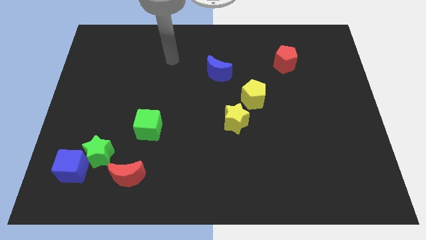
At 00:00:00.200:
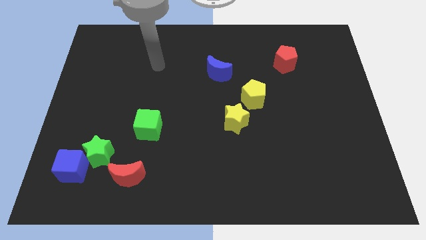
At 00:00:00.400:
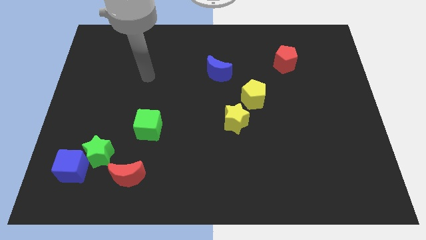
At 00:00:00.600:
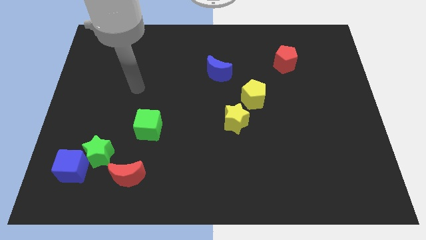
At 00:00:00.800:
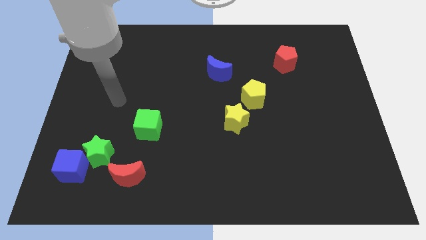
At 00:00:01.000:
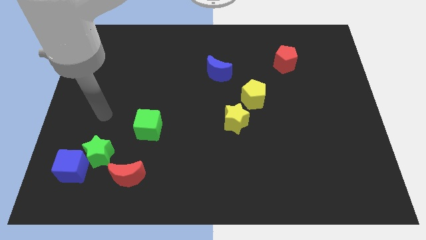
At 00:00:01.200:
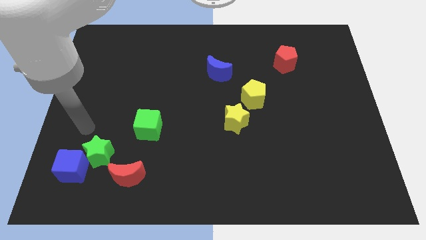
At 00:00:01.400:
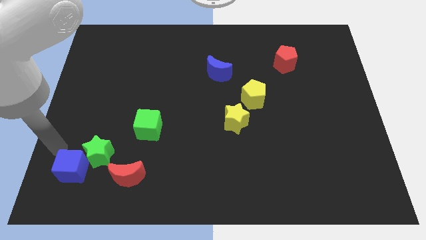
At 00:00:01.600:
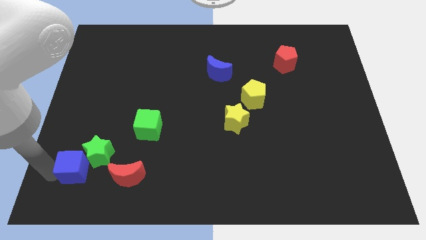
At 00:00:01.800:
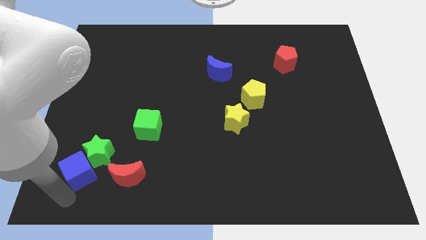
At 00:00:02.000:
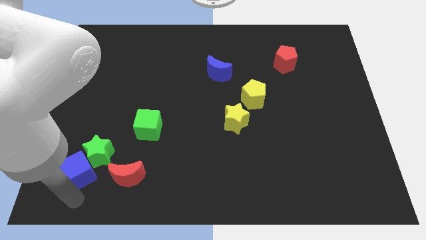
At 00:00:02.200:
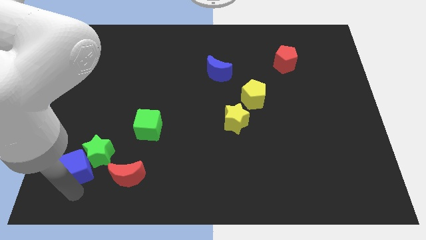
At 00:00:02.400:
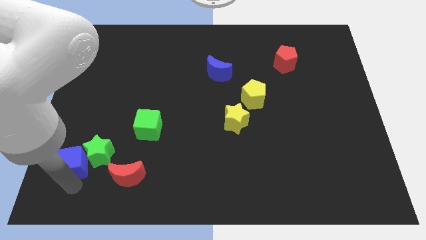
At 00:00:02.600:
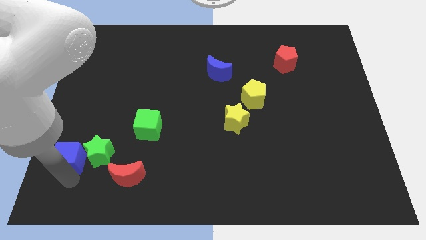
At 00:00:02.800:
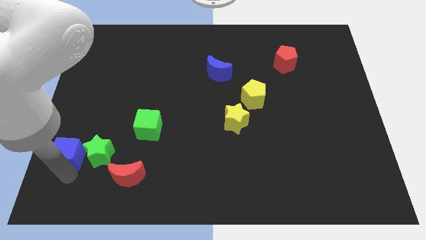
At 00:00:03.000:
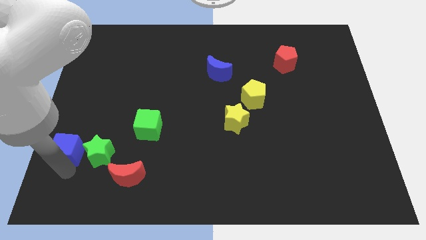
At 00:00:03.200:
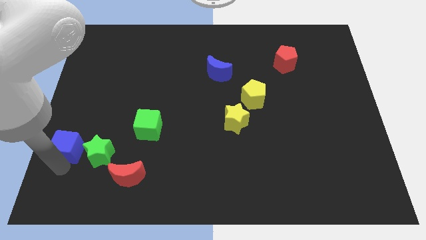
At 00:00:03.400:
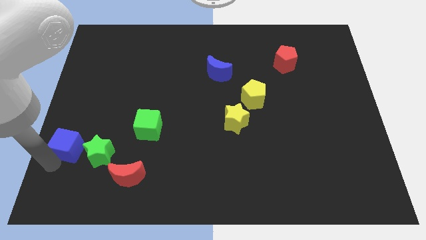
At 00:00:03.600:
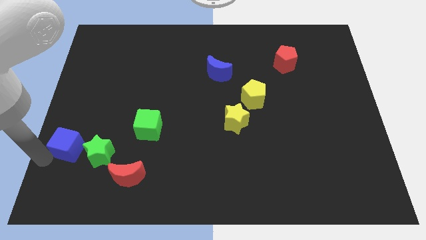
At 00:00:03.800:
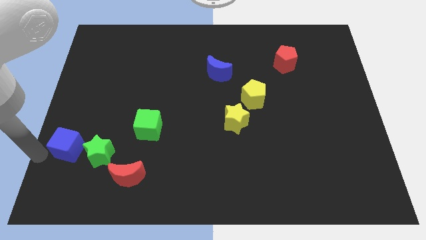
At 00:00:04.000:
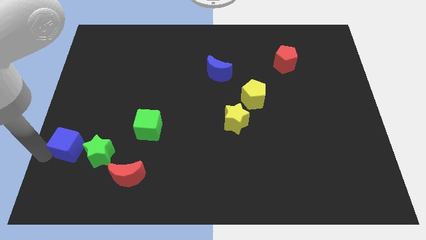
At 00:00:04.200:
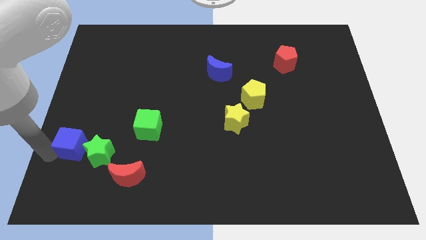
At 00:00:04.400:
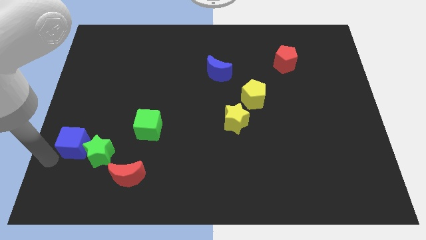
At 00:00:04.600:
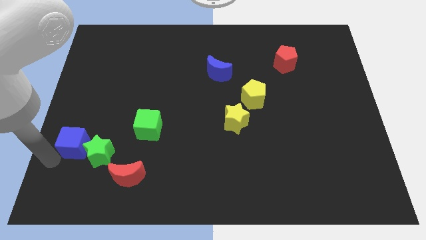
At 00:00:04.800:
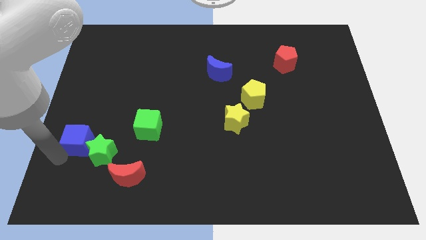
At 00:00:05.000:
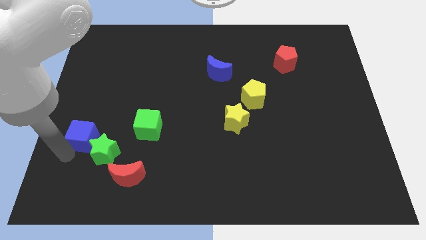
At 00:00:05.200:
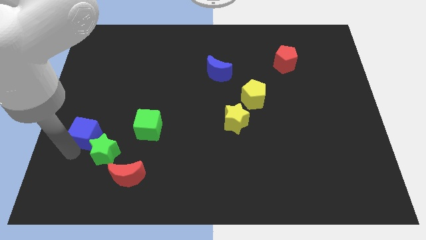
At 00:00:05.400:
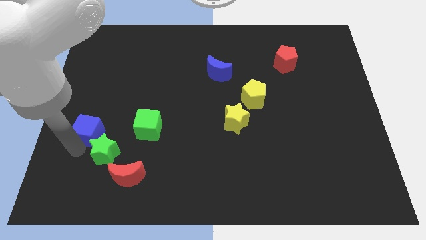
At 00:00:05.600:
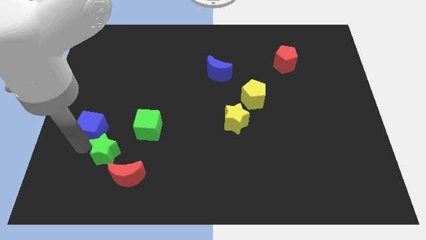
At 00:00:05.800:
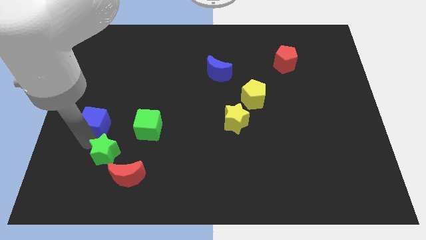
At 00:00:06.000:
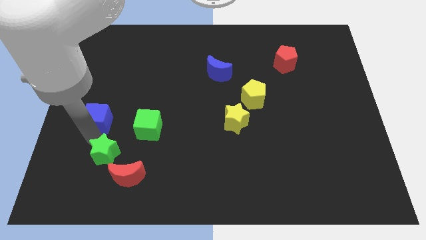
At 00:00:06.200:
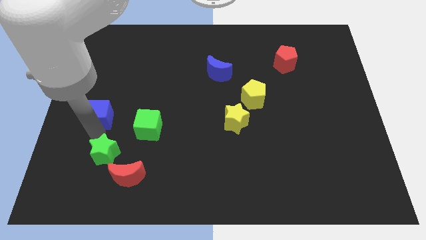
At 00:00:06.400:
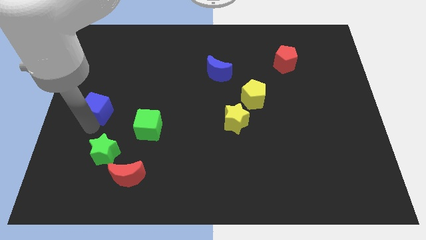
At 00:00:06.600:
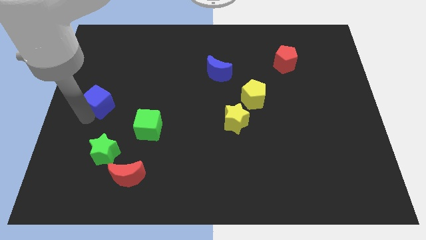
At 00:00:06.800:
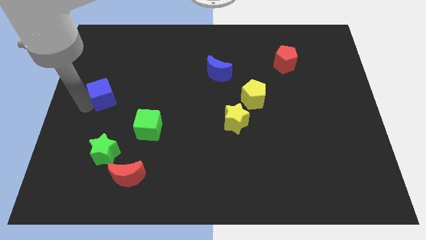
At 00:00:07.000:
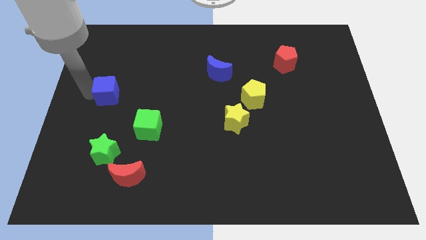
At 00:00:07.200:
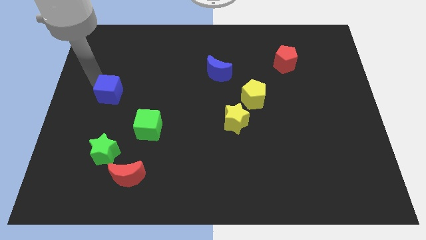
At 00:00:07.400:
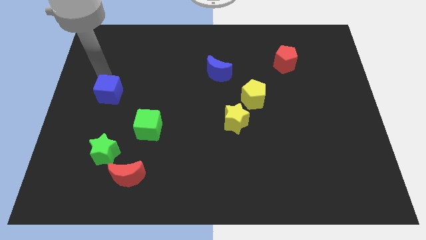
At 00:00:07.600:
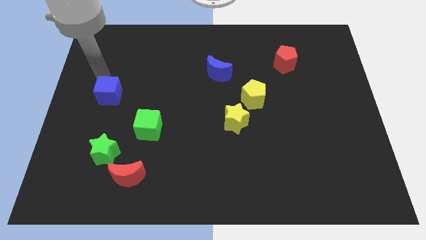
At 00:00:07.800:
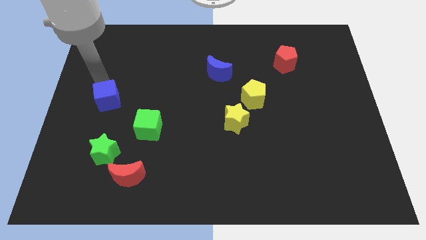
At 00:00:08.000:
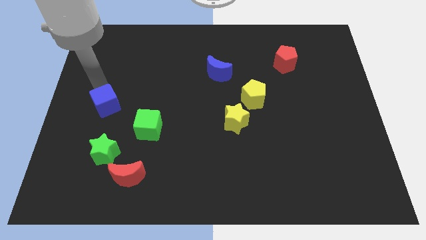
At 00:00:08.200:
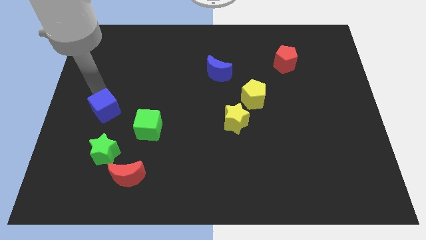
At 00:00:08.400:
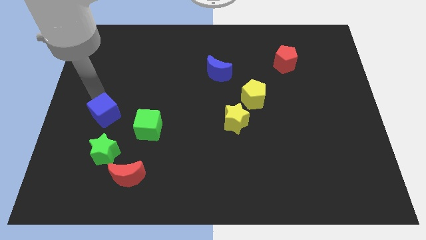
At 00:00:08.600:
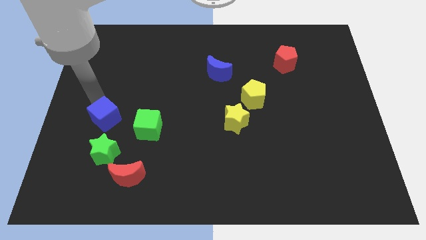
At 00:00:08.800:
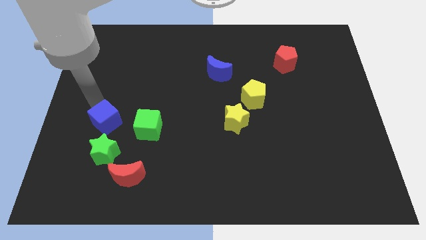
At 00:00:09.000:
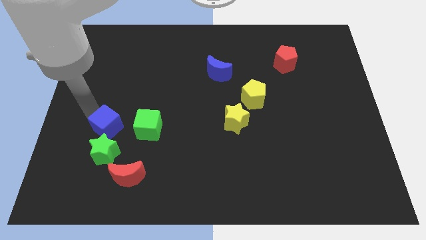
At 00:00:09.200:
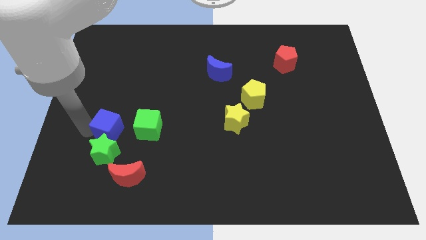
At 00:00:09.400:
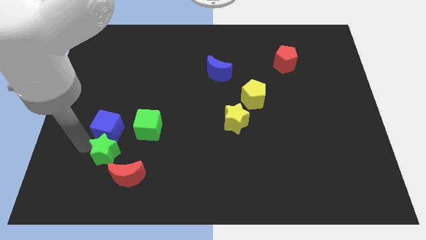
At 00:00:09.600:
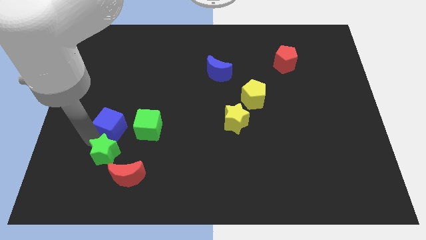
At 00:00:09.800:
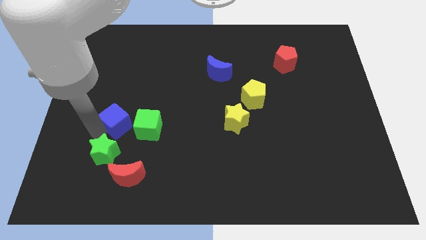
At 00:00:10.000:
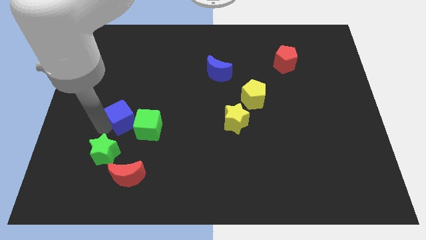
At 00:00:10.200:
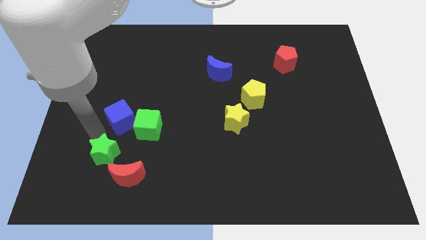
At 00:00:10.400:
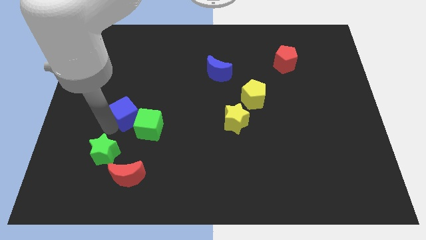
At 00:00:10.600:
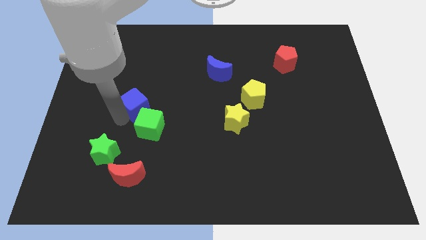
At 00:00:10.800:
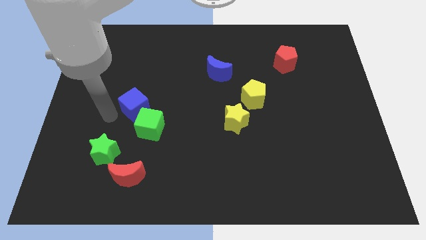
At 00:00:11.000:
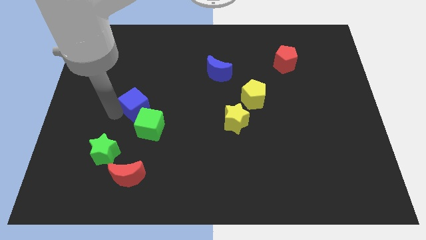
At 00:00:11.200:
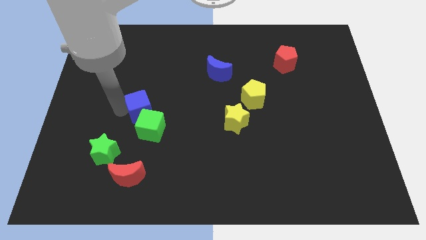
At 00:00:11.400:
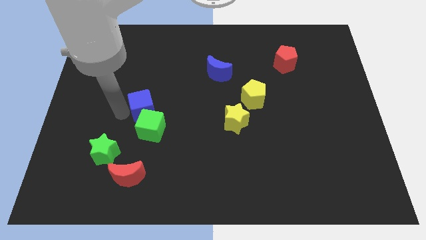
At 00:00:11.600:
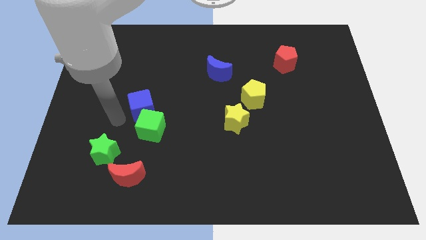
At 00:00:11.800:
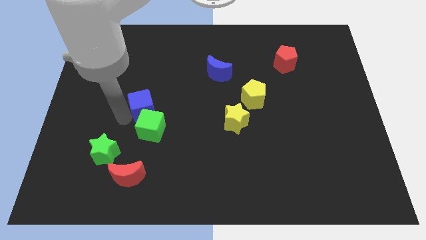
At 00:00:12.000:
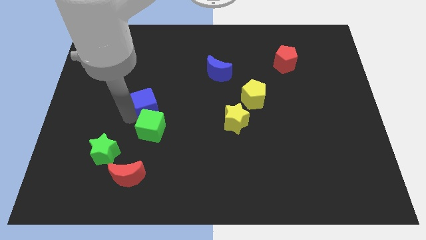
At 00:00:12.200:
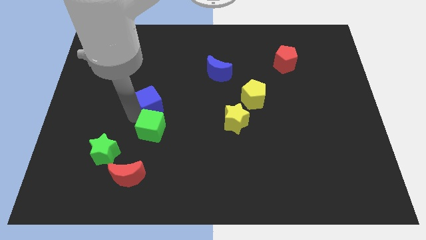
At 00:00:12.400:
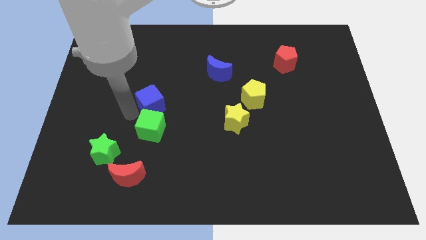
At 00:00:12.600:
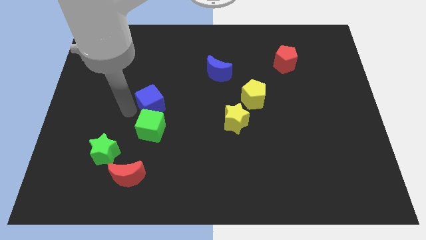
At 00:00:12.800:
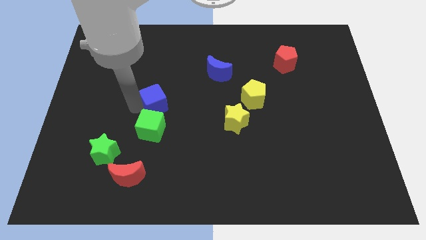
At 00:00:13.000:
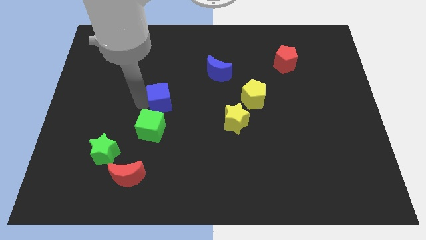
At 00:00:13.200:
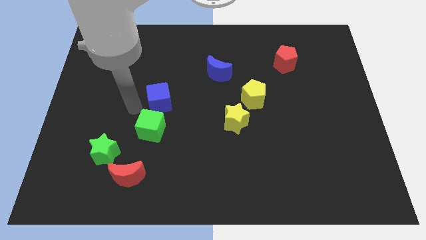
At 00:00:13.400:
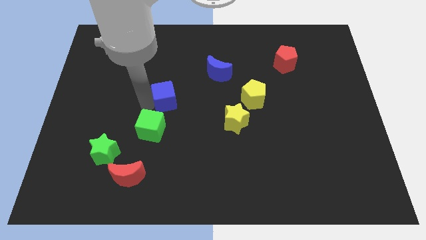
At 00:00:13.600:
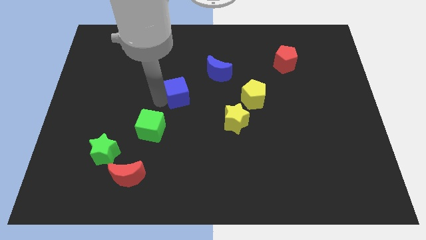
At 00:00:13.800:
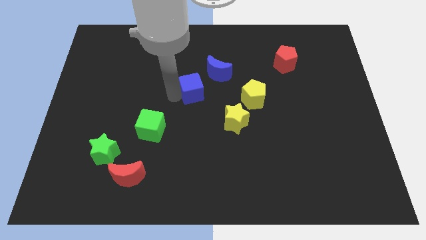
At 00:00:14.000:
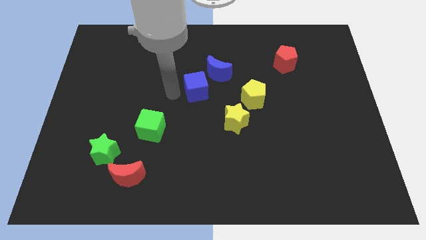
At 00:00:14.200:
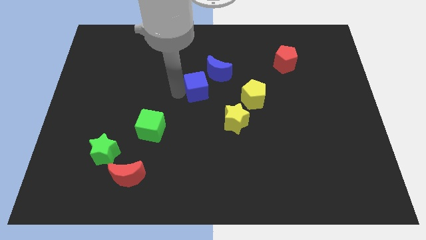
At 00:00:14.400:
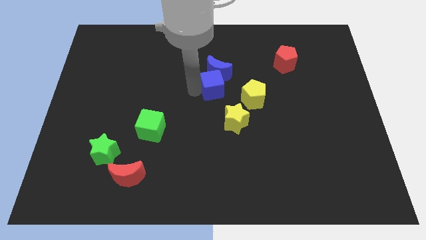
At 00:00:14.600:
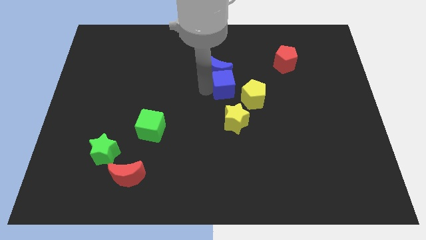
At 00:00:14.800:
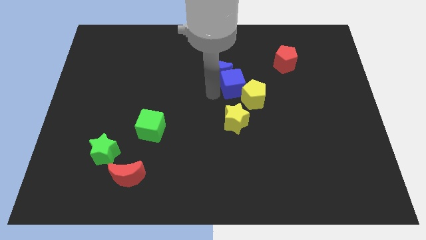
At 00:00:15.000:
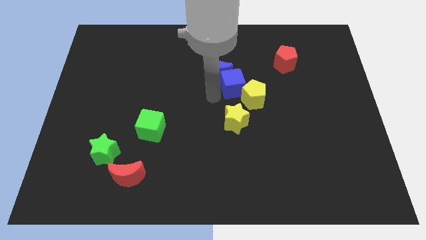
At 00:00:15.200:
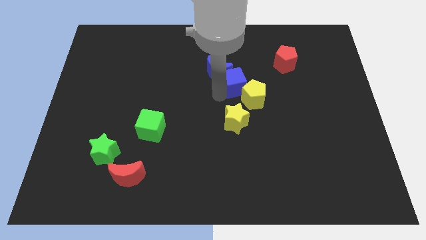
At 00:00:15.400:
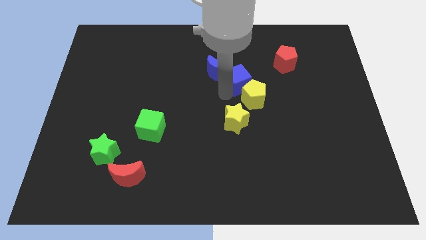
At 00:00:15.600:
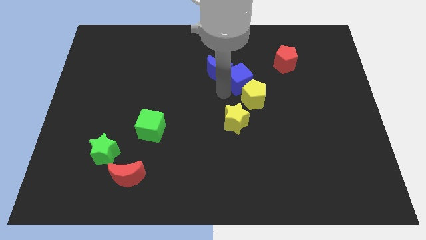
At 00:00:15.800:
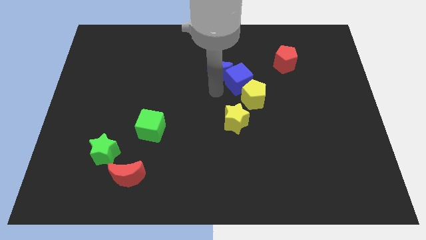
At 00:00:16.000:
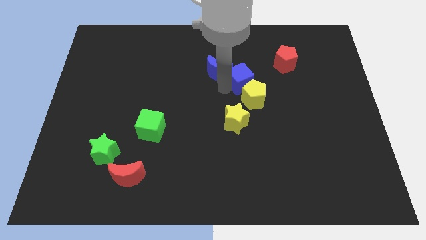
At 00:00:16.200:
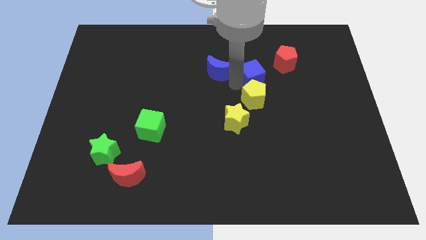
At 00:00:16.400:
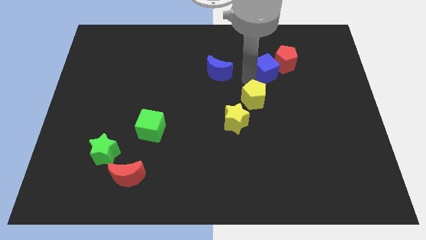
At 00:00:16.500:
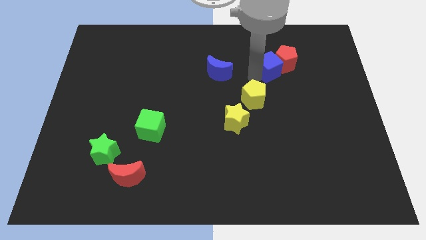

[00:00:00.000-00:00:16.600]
push the blue cube towards the red pentagon
